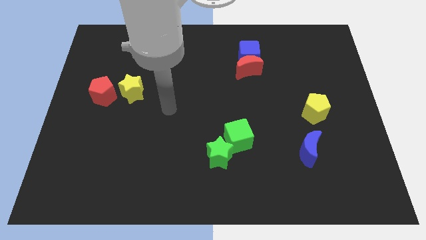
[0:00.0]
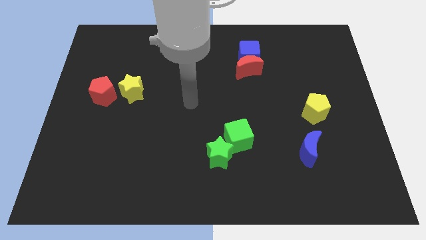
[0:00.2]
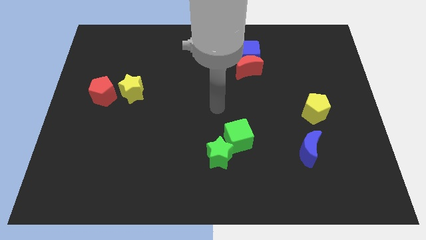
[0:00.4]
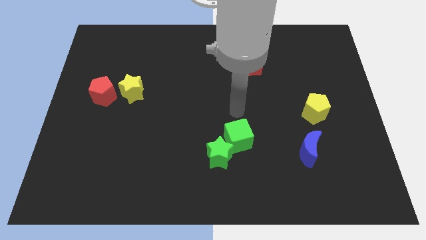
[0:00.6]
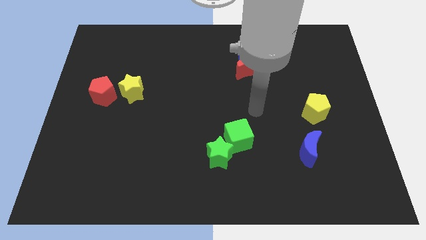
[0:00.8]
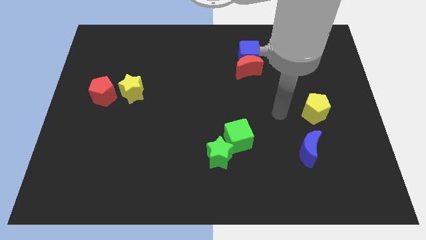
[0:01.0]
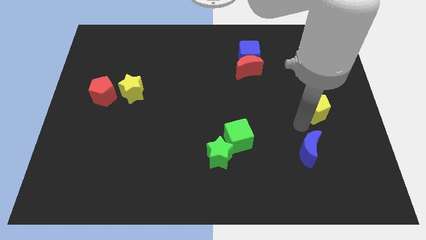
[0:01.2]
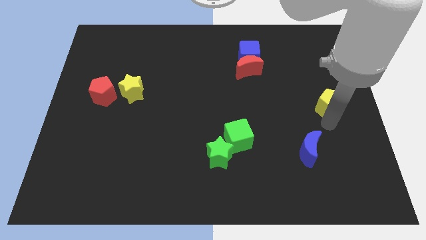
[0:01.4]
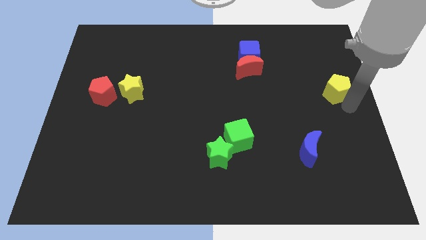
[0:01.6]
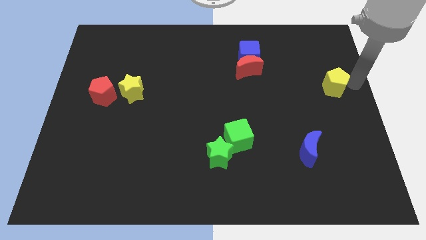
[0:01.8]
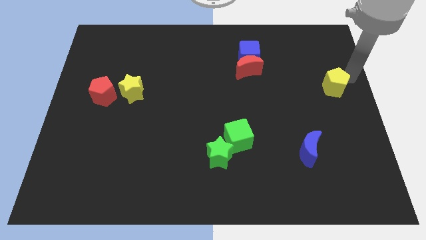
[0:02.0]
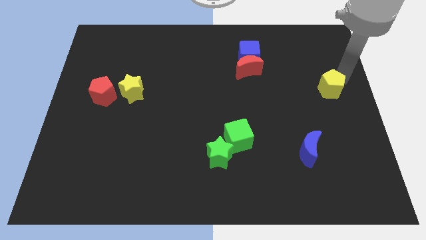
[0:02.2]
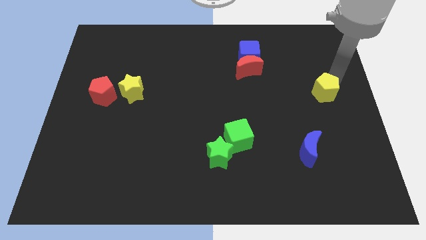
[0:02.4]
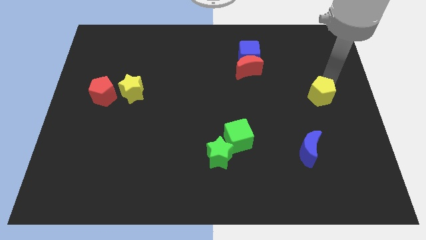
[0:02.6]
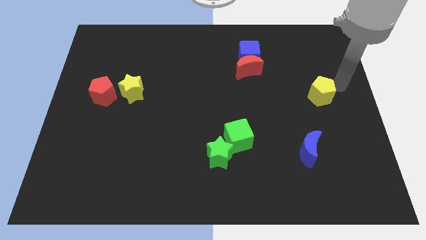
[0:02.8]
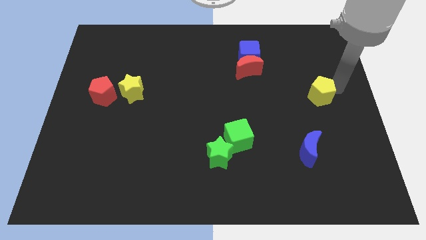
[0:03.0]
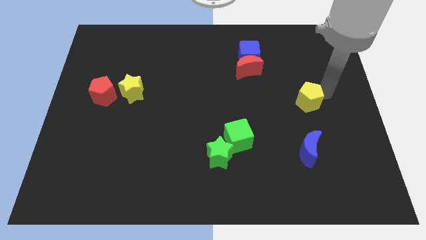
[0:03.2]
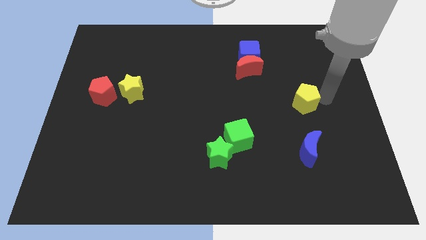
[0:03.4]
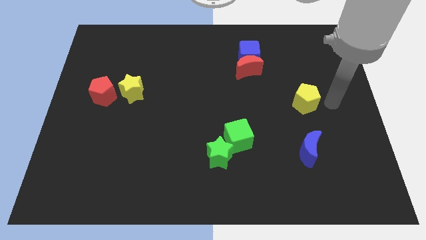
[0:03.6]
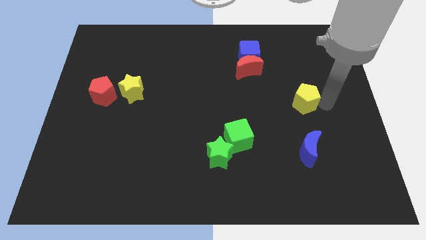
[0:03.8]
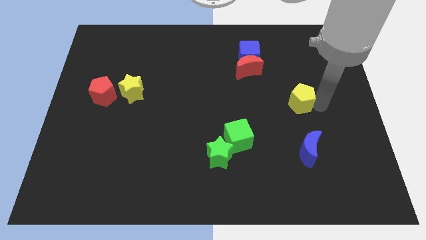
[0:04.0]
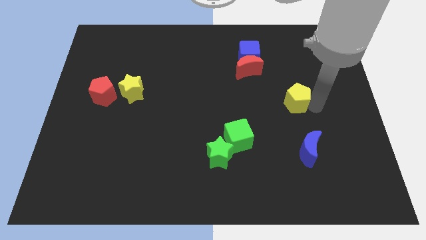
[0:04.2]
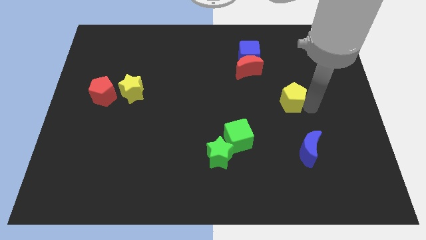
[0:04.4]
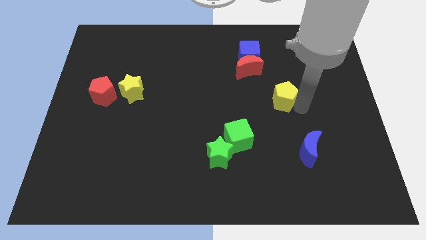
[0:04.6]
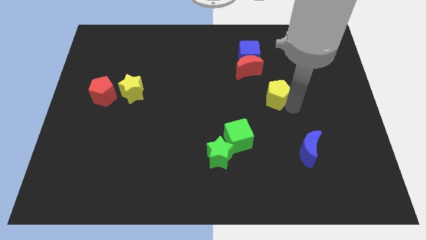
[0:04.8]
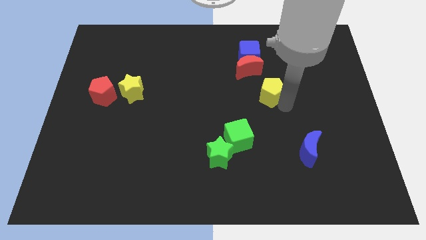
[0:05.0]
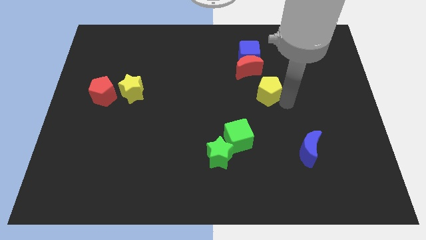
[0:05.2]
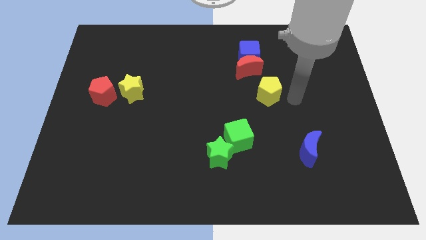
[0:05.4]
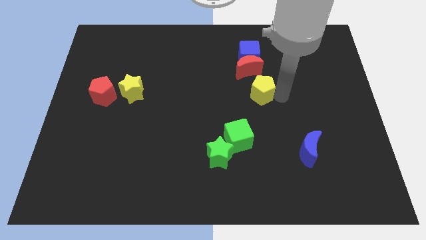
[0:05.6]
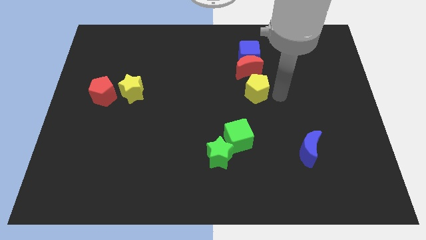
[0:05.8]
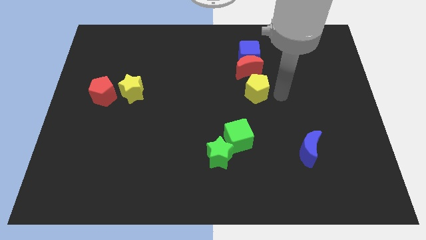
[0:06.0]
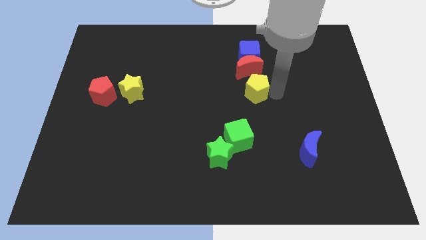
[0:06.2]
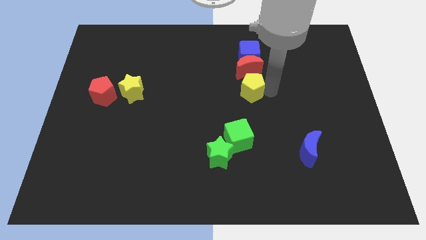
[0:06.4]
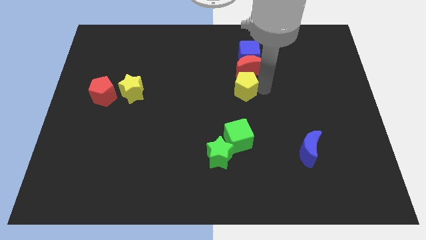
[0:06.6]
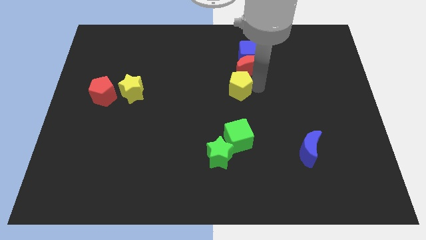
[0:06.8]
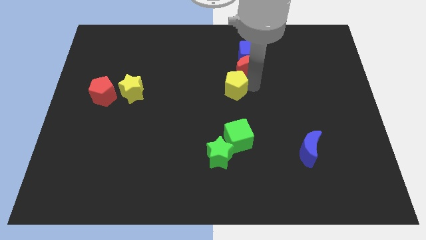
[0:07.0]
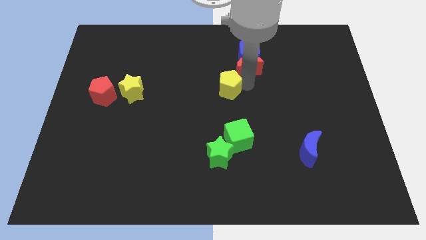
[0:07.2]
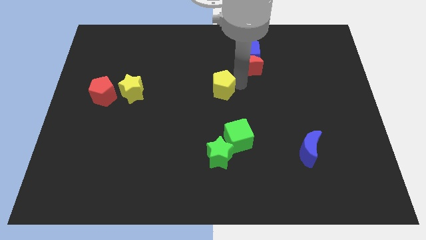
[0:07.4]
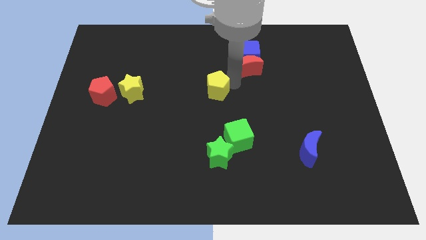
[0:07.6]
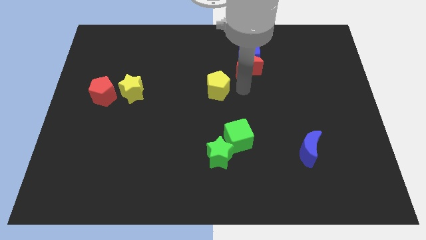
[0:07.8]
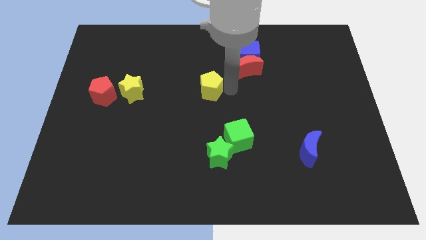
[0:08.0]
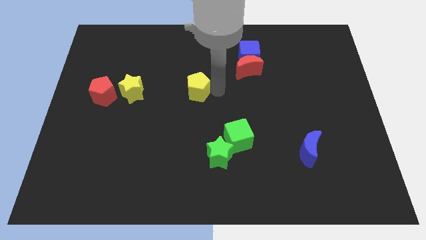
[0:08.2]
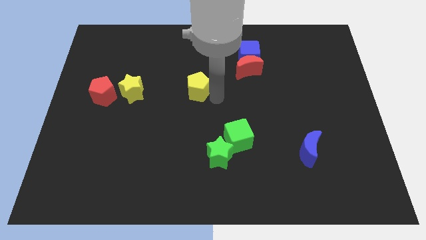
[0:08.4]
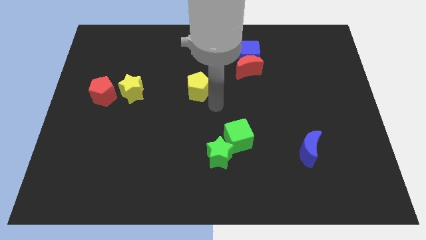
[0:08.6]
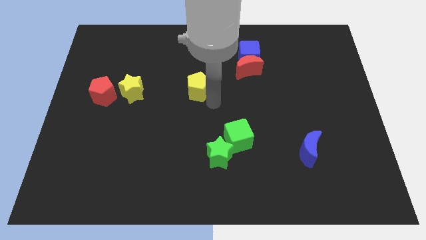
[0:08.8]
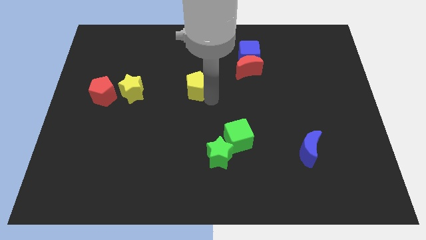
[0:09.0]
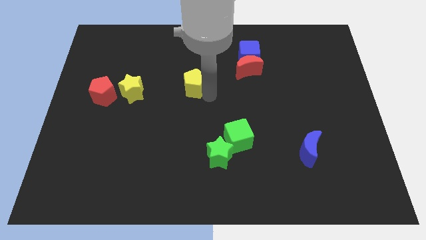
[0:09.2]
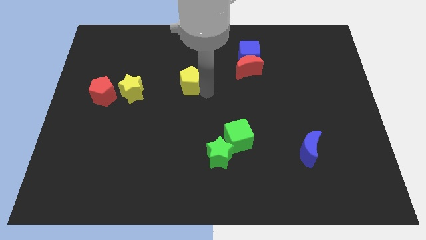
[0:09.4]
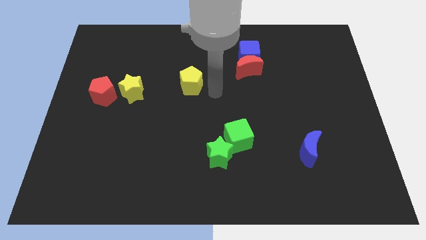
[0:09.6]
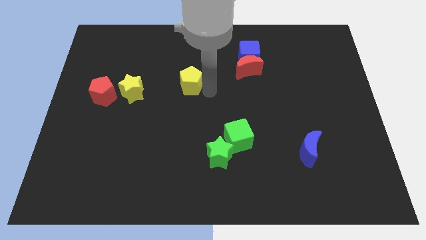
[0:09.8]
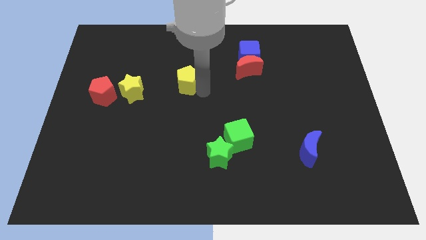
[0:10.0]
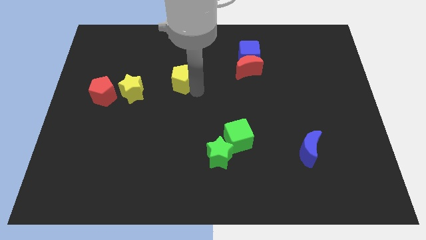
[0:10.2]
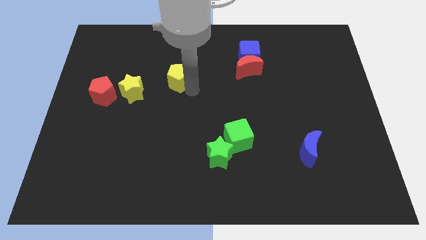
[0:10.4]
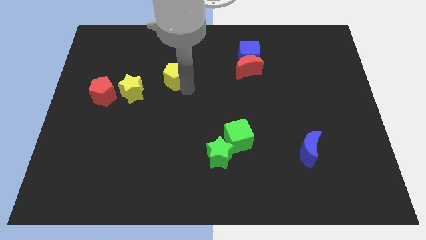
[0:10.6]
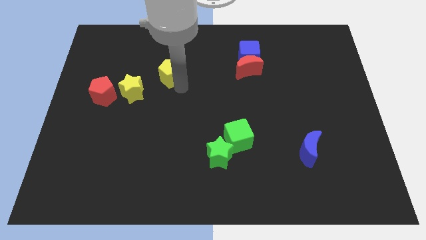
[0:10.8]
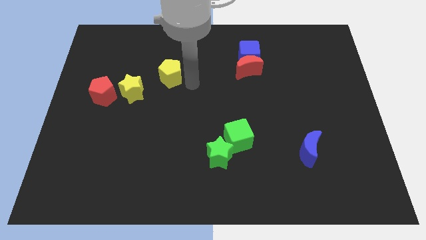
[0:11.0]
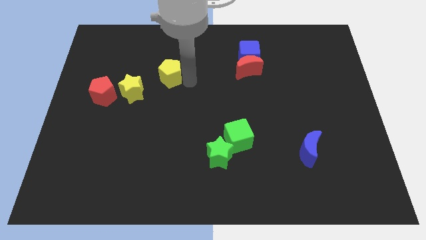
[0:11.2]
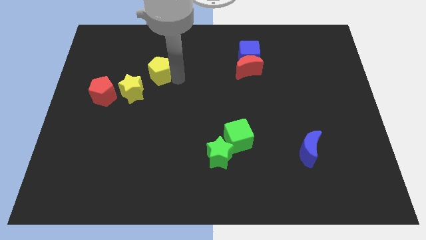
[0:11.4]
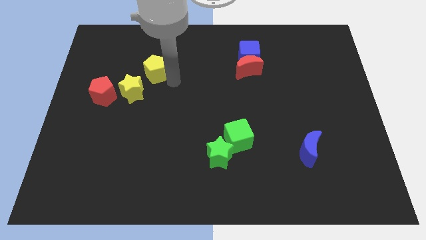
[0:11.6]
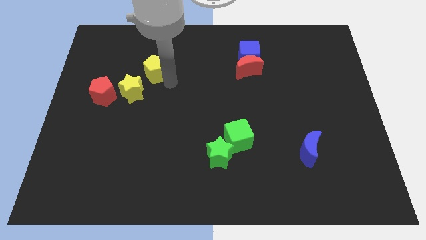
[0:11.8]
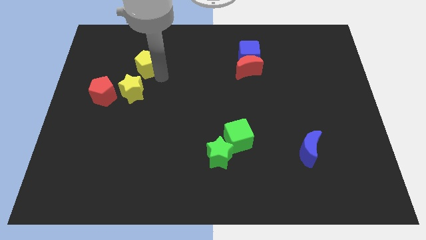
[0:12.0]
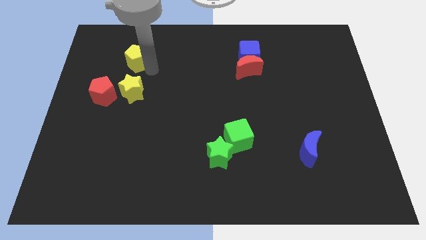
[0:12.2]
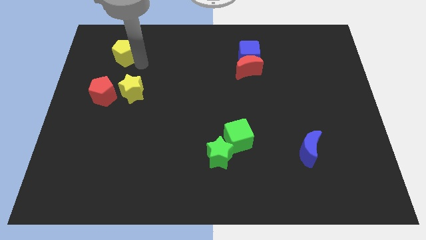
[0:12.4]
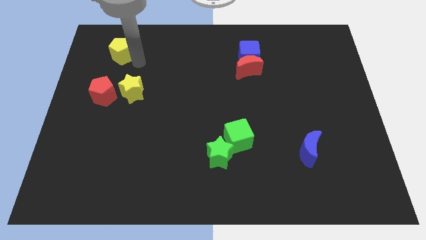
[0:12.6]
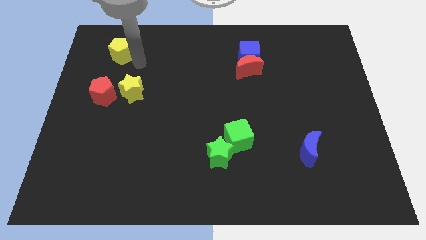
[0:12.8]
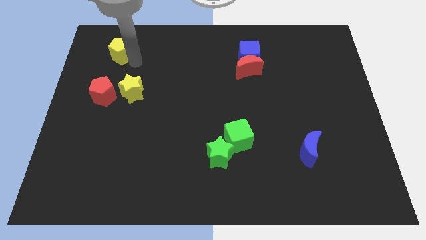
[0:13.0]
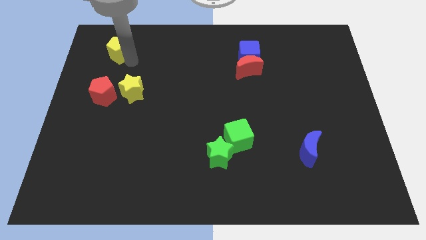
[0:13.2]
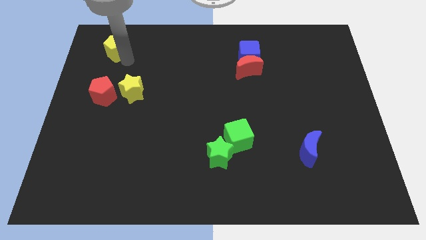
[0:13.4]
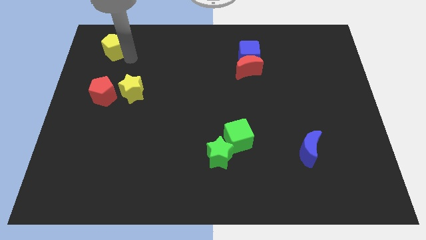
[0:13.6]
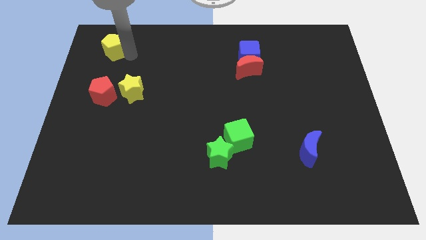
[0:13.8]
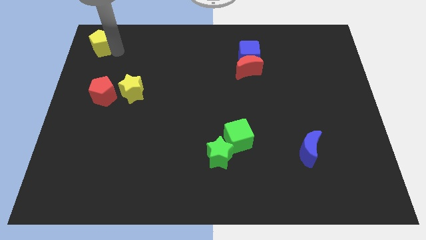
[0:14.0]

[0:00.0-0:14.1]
push the yellow pentagon to the top left of the board
